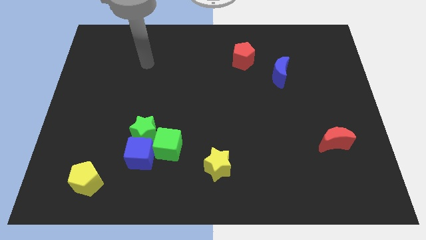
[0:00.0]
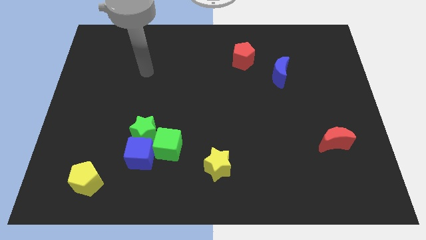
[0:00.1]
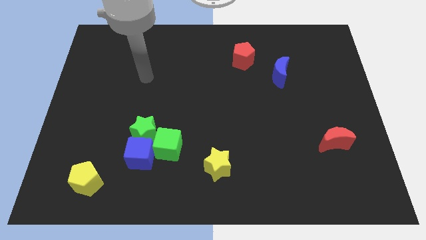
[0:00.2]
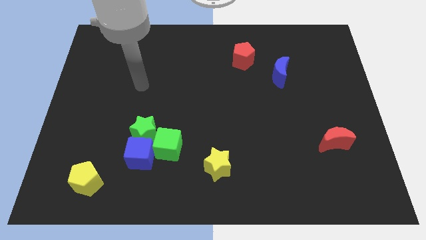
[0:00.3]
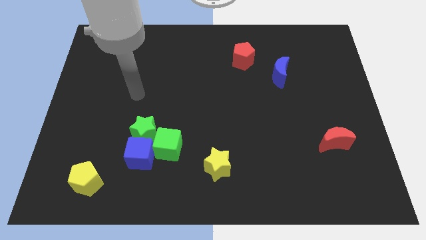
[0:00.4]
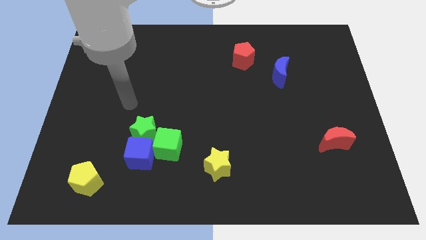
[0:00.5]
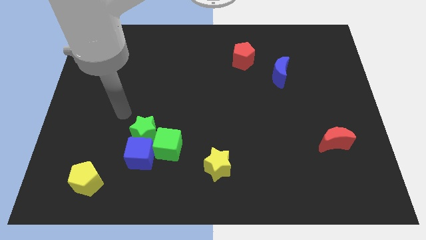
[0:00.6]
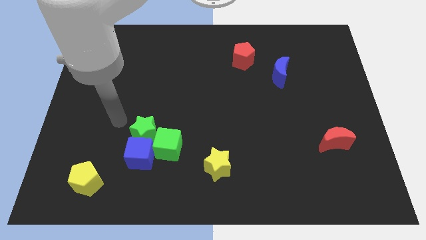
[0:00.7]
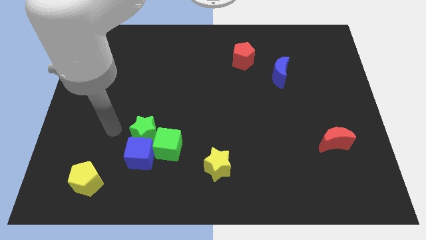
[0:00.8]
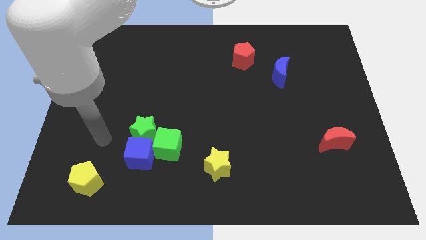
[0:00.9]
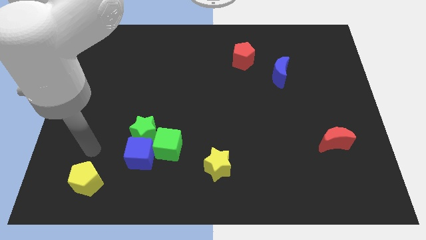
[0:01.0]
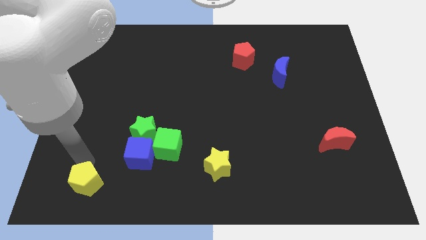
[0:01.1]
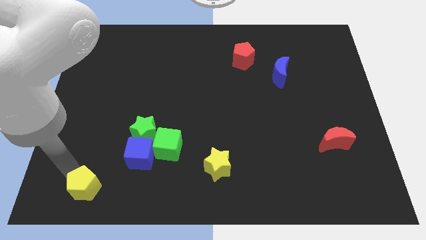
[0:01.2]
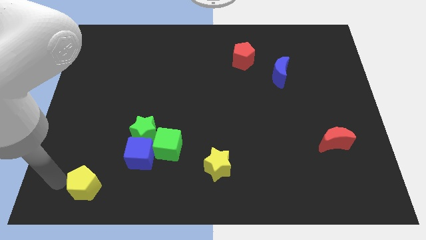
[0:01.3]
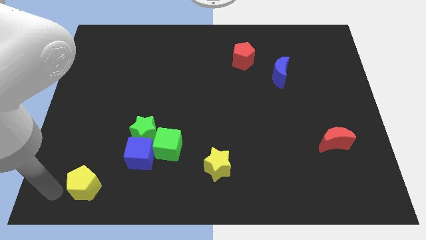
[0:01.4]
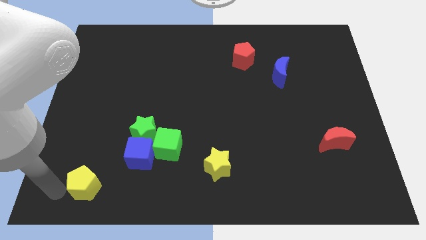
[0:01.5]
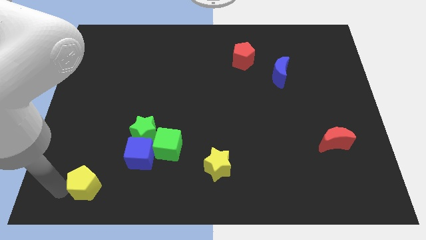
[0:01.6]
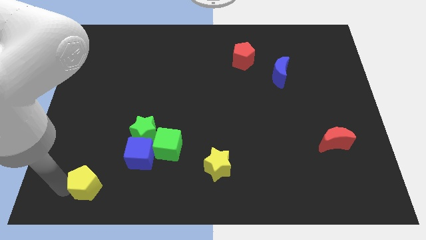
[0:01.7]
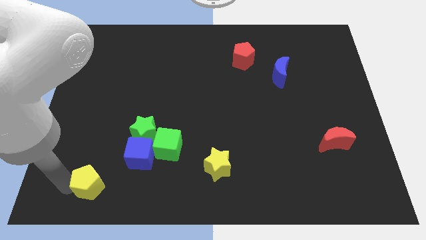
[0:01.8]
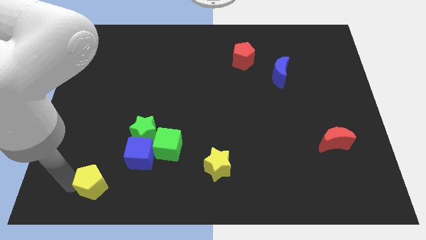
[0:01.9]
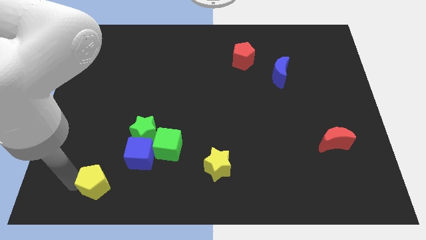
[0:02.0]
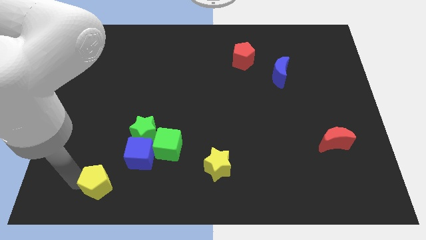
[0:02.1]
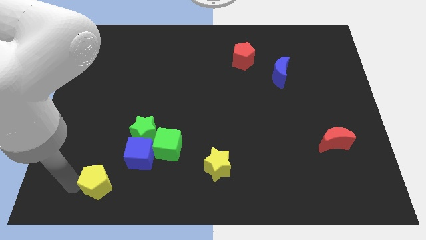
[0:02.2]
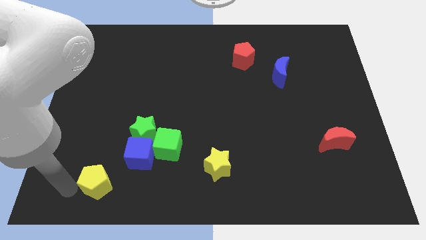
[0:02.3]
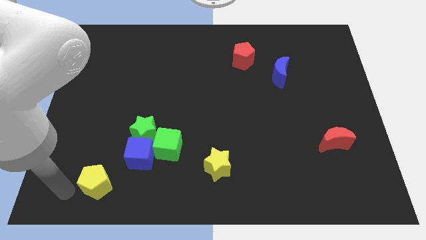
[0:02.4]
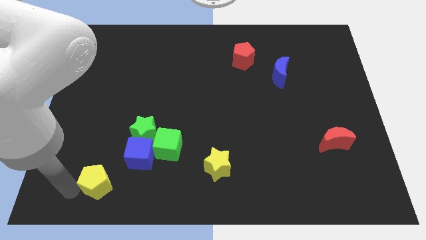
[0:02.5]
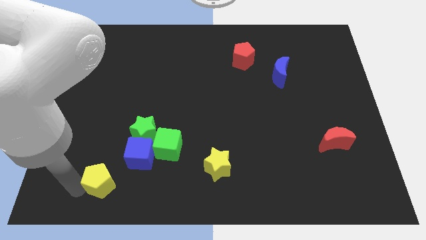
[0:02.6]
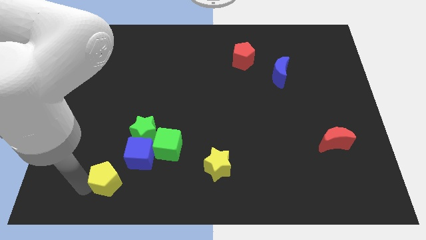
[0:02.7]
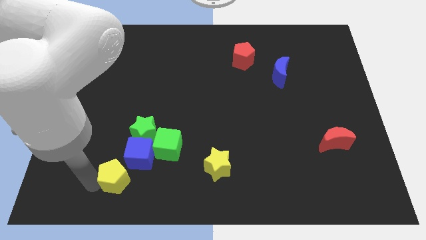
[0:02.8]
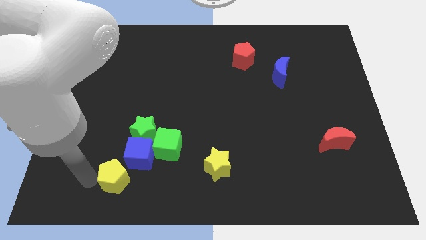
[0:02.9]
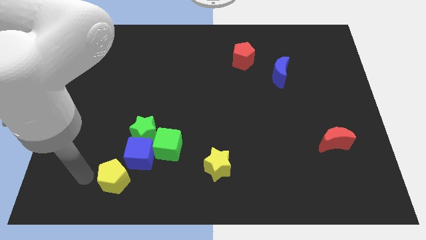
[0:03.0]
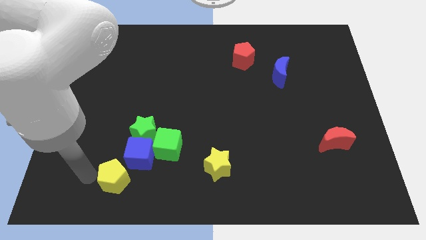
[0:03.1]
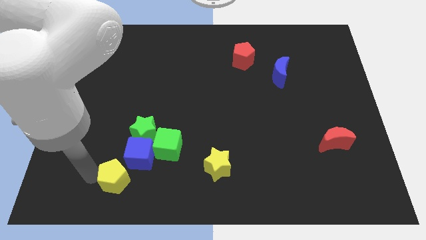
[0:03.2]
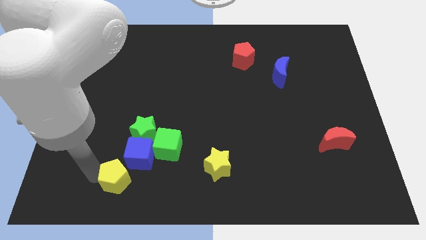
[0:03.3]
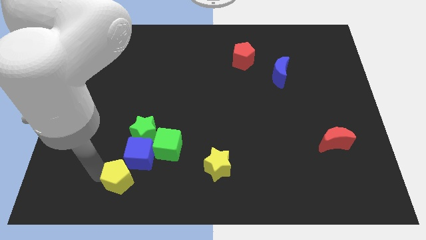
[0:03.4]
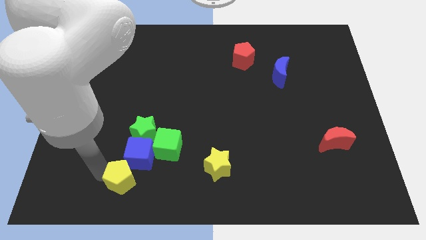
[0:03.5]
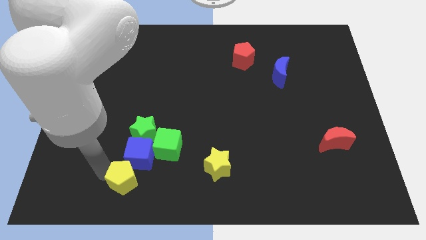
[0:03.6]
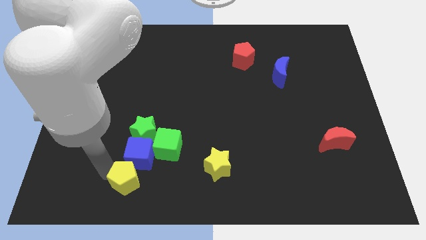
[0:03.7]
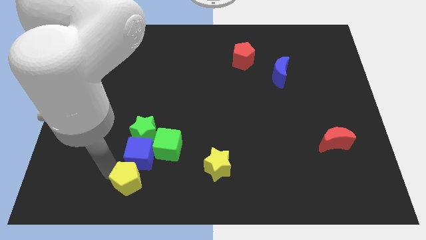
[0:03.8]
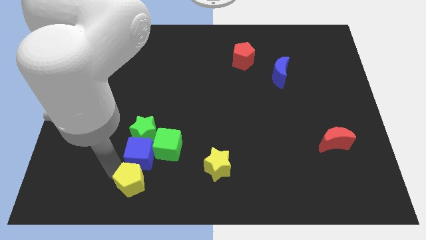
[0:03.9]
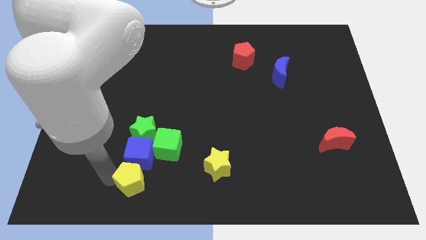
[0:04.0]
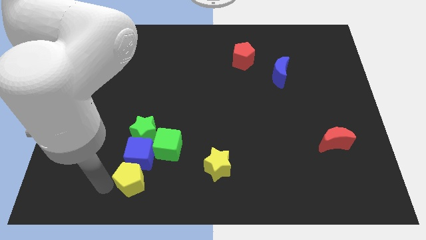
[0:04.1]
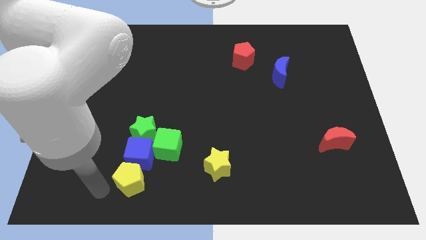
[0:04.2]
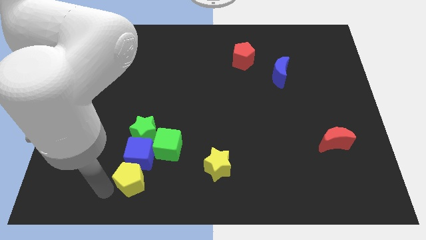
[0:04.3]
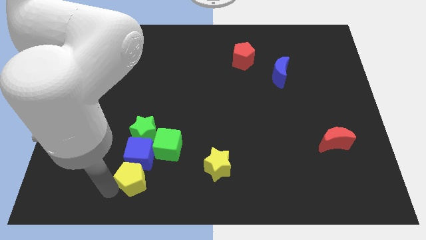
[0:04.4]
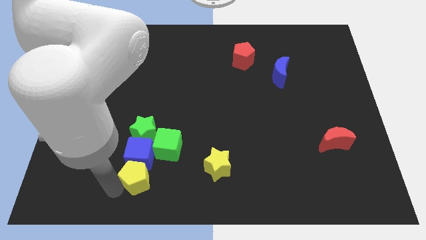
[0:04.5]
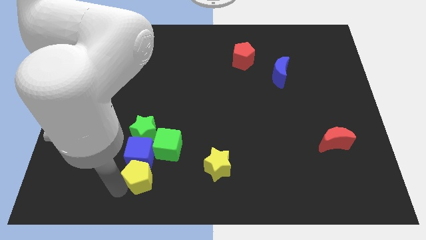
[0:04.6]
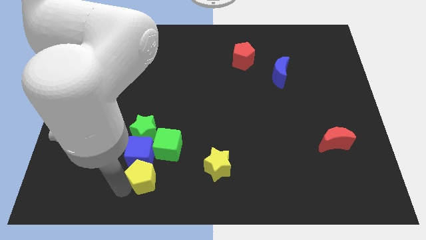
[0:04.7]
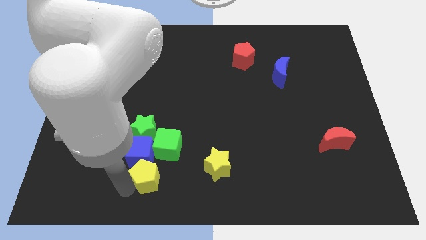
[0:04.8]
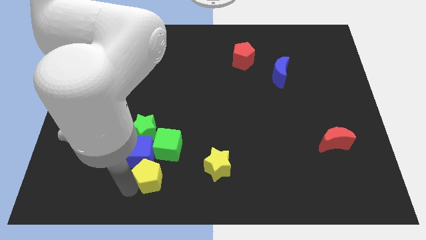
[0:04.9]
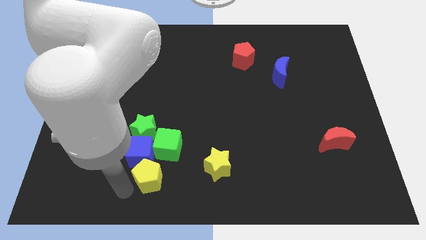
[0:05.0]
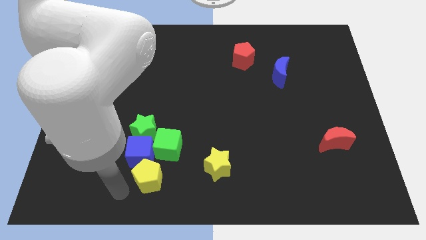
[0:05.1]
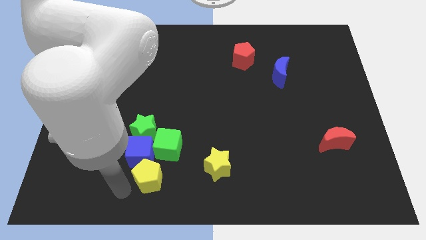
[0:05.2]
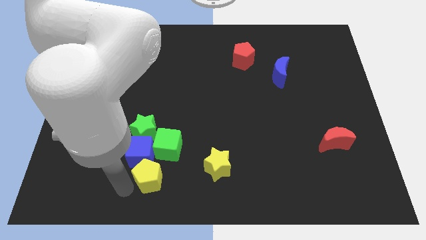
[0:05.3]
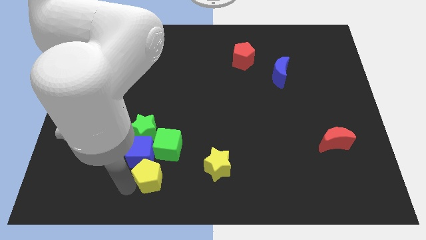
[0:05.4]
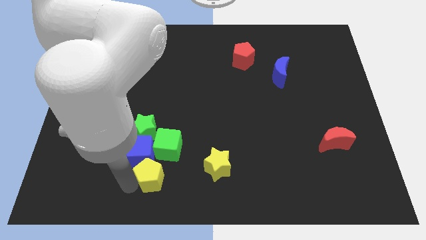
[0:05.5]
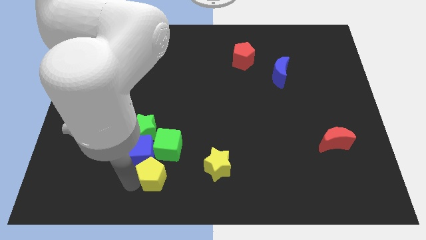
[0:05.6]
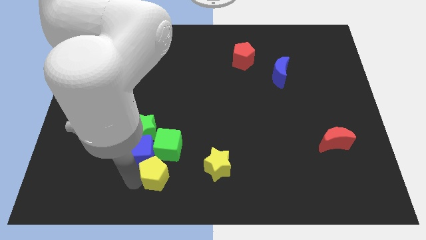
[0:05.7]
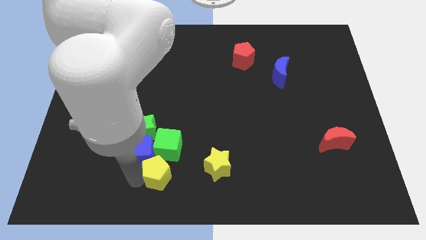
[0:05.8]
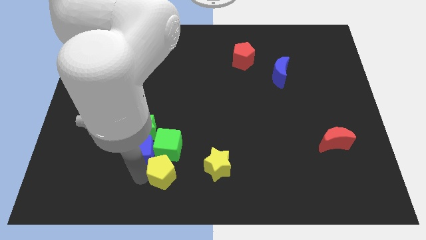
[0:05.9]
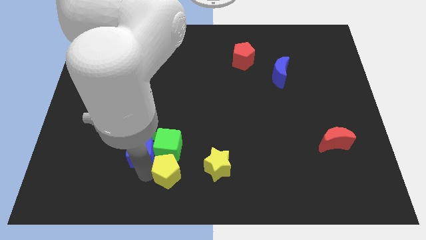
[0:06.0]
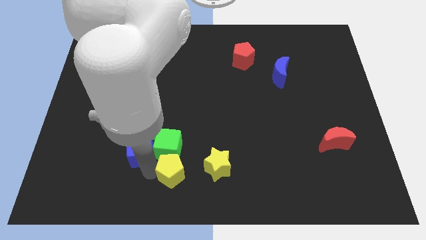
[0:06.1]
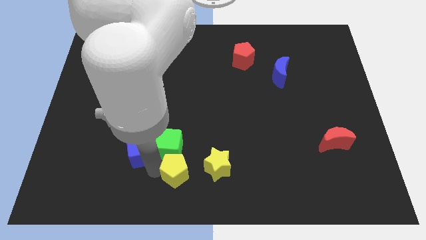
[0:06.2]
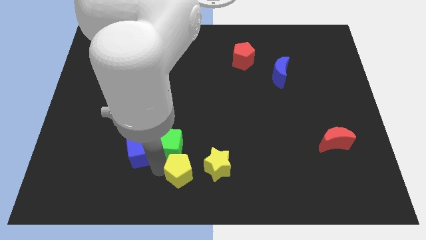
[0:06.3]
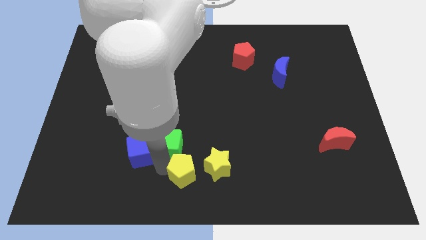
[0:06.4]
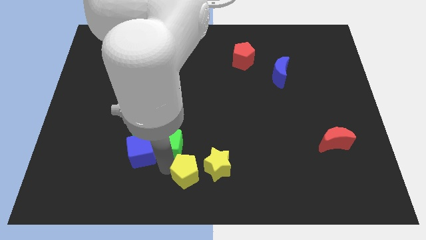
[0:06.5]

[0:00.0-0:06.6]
slide the yellow pentagon to the yellow star

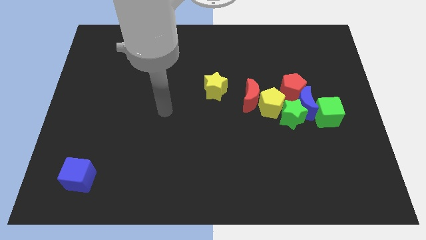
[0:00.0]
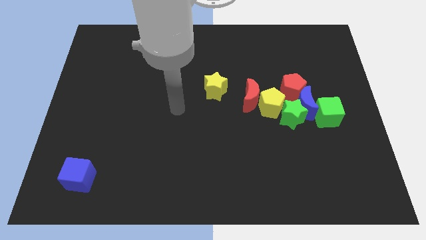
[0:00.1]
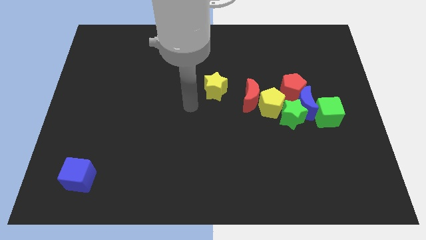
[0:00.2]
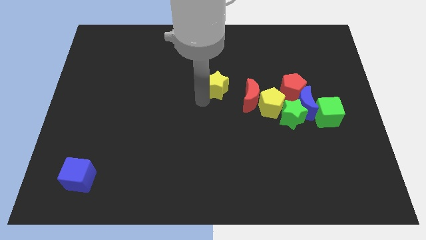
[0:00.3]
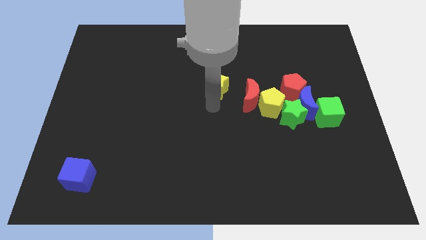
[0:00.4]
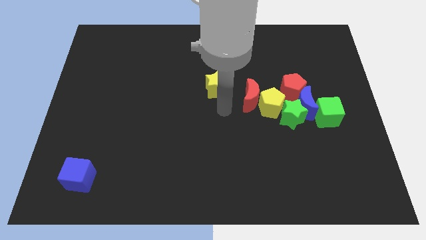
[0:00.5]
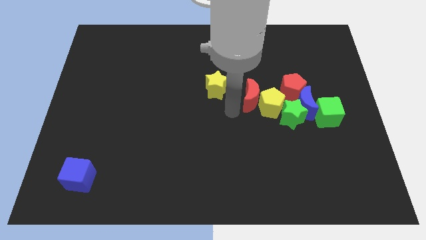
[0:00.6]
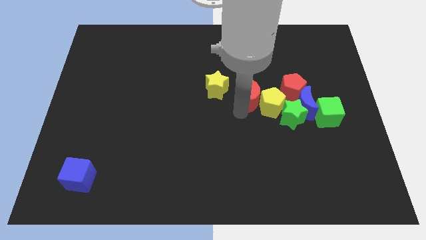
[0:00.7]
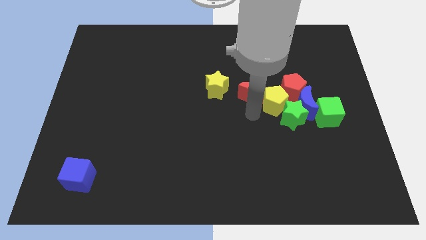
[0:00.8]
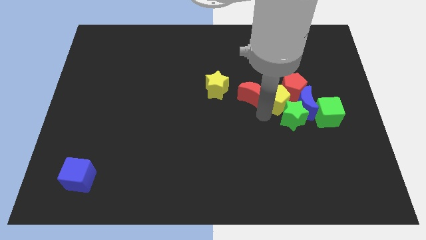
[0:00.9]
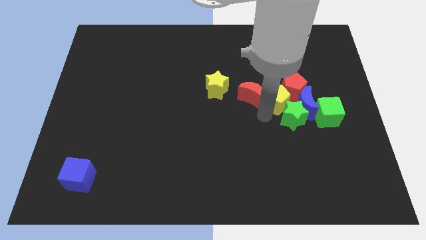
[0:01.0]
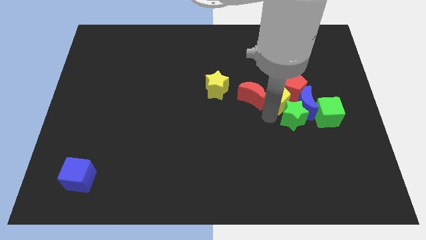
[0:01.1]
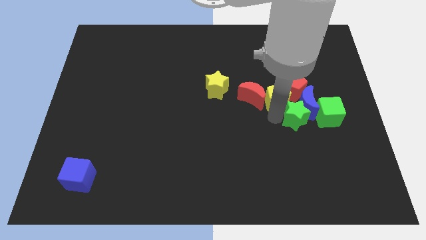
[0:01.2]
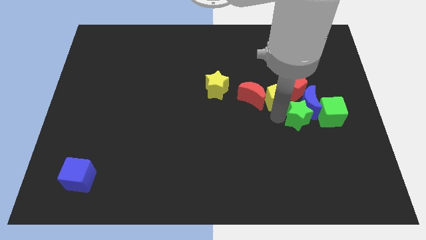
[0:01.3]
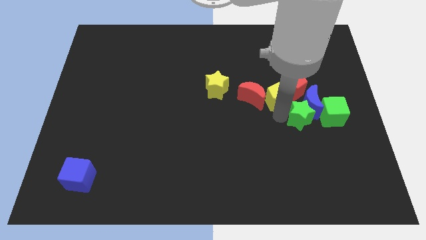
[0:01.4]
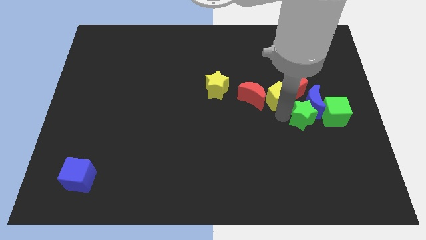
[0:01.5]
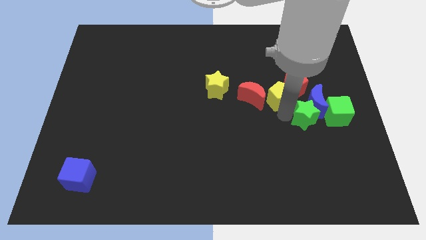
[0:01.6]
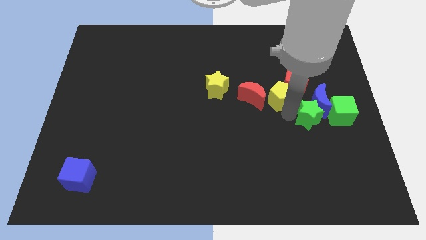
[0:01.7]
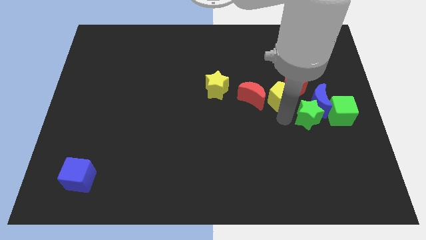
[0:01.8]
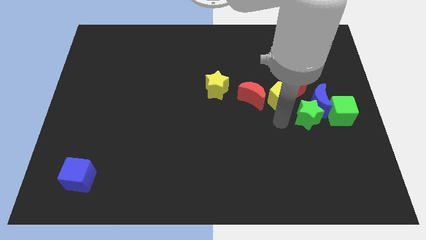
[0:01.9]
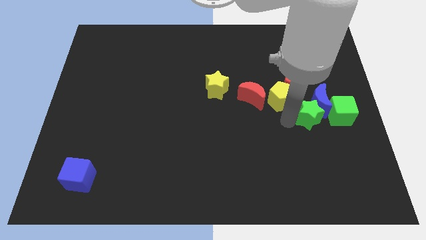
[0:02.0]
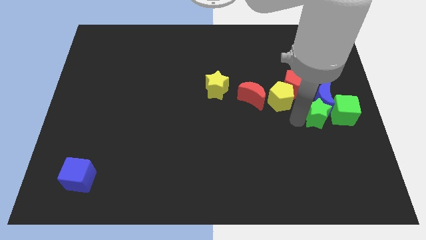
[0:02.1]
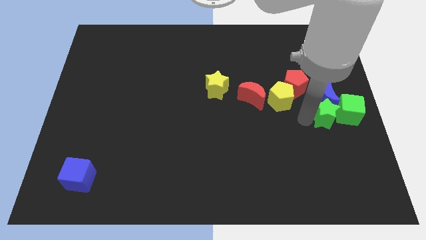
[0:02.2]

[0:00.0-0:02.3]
put the green star towards the green cube
